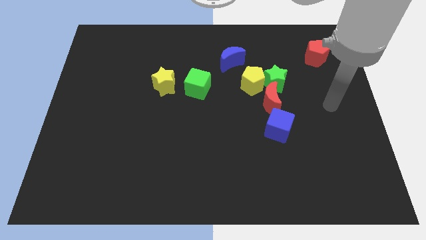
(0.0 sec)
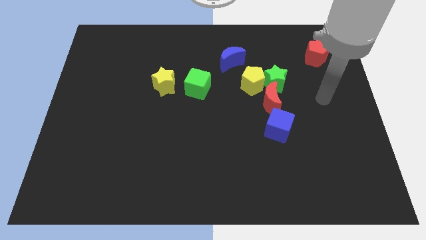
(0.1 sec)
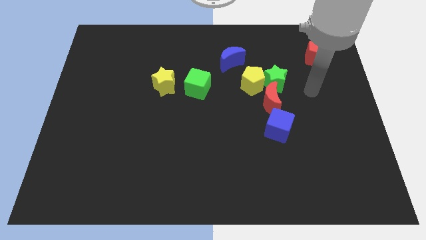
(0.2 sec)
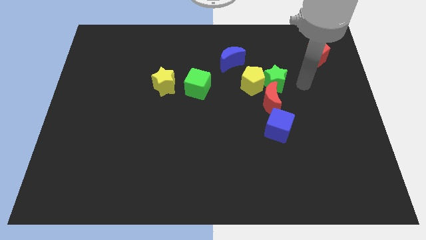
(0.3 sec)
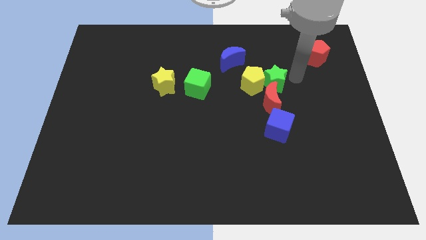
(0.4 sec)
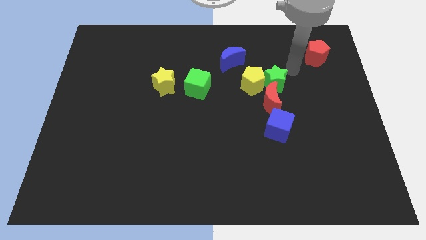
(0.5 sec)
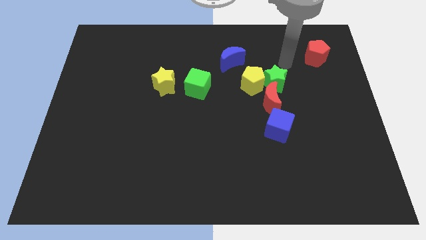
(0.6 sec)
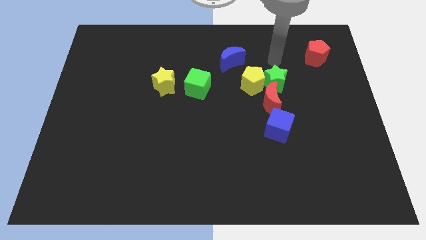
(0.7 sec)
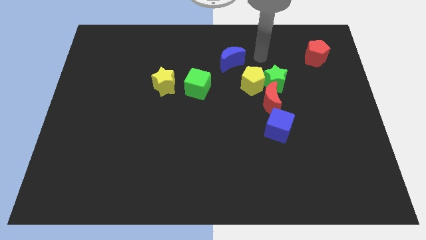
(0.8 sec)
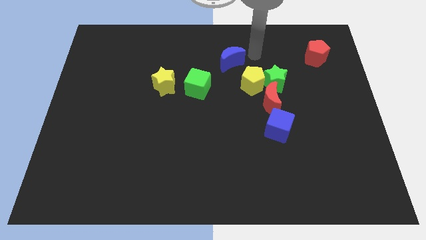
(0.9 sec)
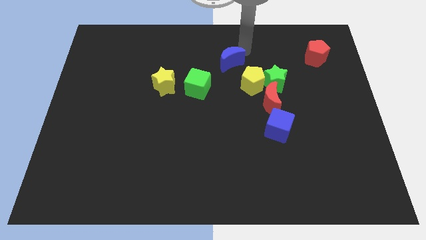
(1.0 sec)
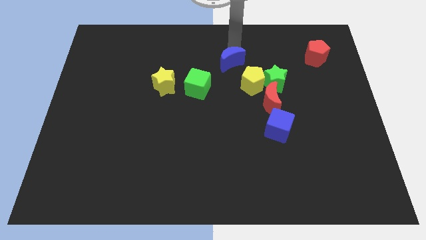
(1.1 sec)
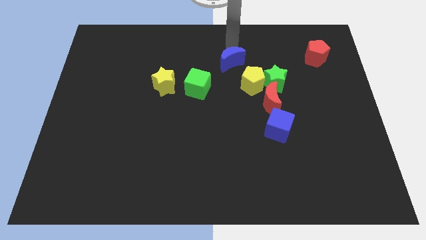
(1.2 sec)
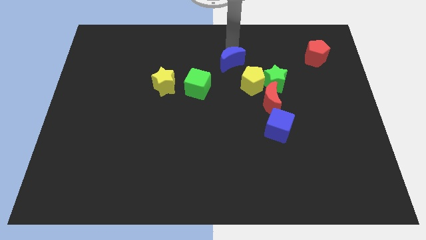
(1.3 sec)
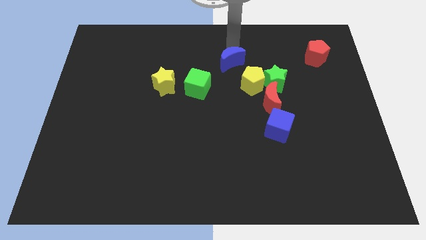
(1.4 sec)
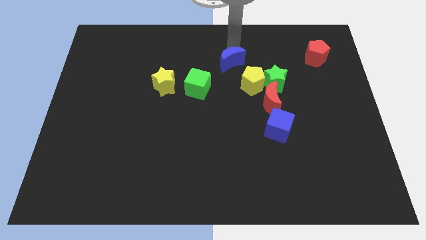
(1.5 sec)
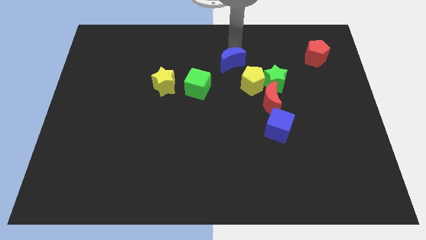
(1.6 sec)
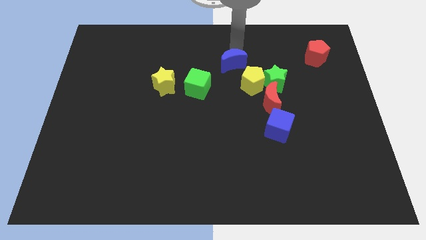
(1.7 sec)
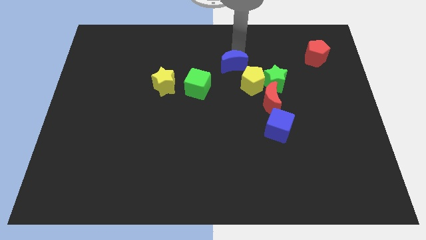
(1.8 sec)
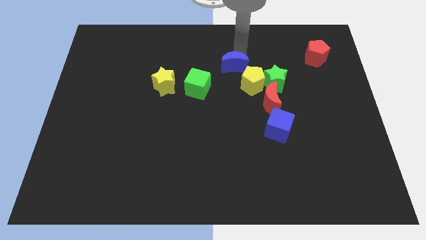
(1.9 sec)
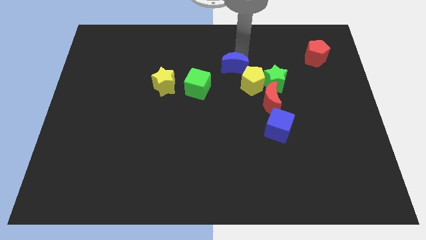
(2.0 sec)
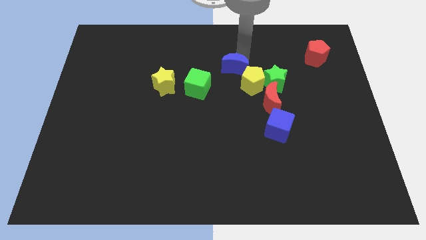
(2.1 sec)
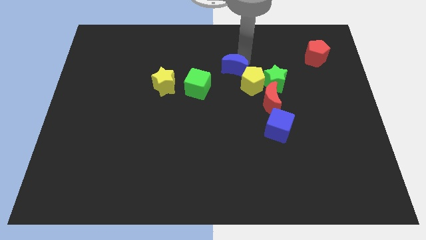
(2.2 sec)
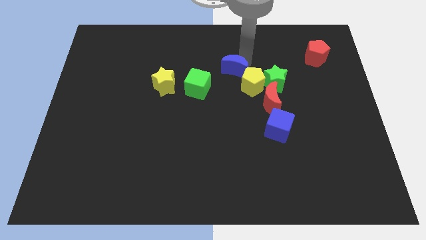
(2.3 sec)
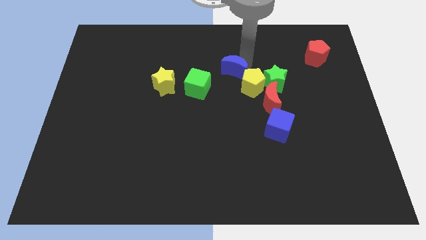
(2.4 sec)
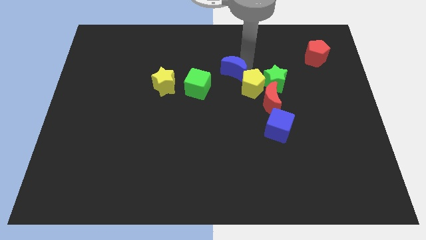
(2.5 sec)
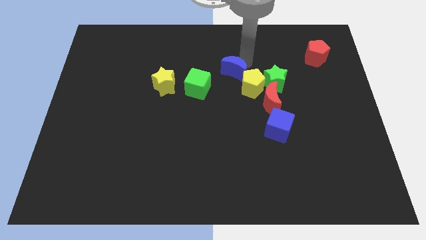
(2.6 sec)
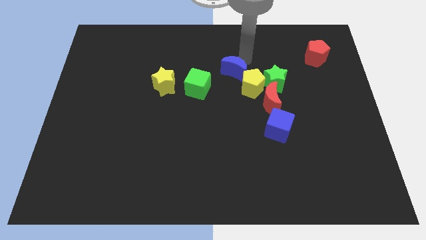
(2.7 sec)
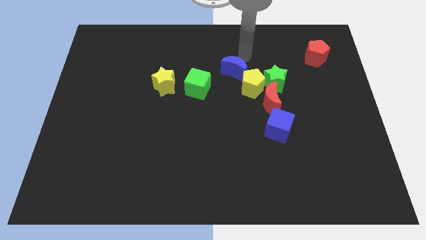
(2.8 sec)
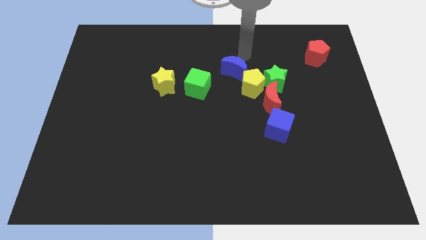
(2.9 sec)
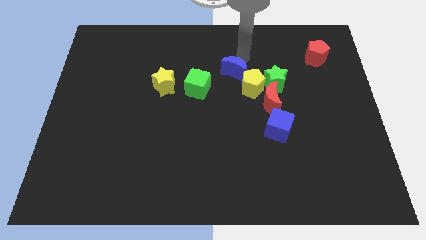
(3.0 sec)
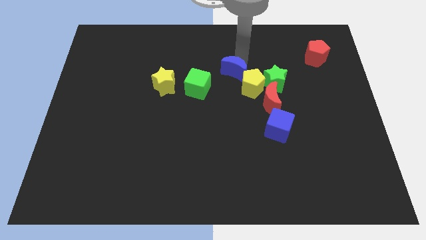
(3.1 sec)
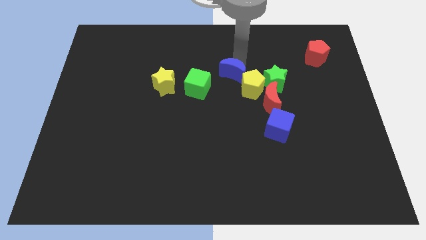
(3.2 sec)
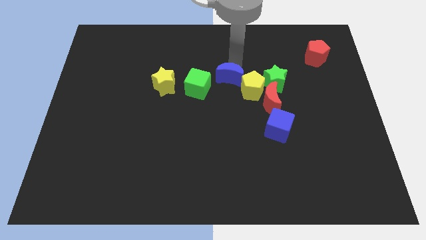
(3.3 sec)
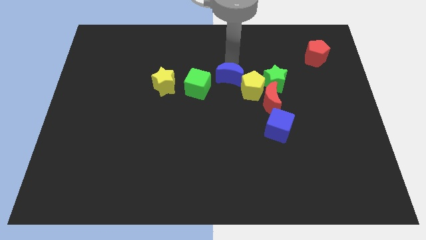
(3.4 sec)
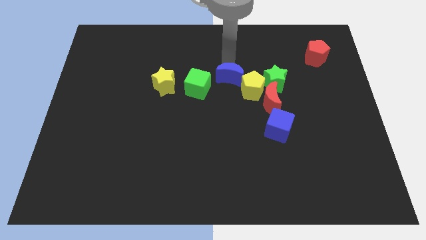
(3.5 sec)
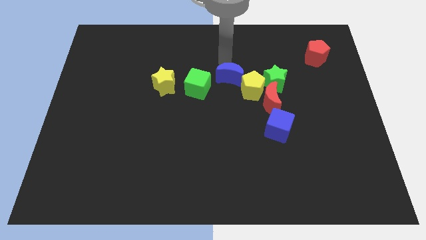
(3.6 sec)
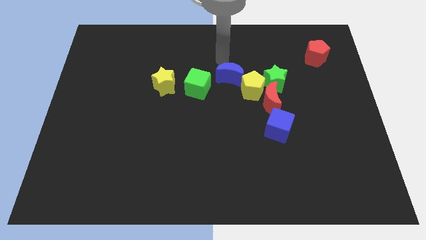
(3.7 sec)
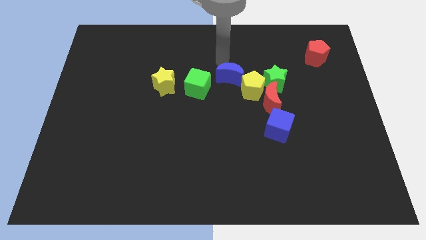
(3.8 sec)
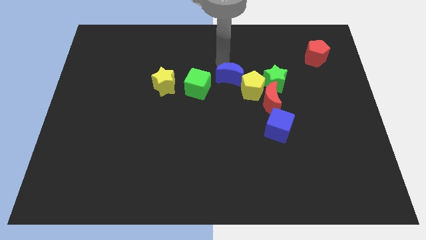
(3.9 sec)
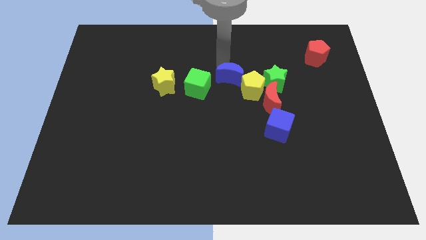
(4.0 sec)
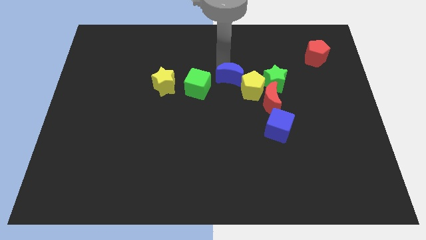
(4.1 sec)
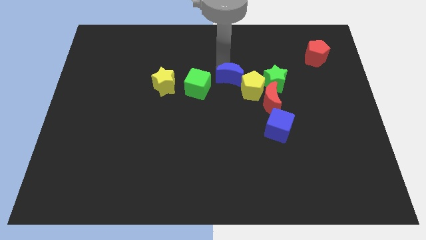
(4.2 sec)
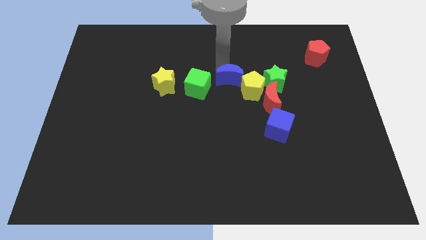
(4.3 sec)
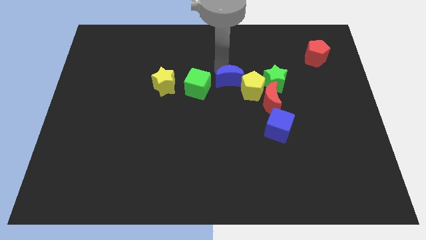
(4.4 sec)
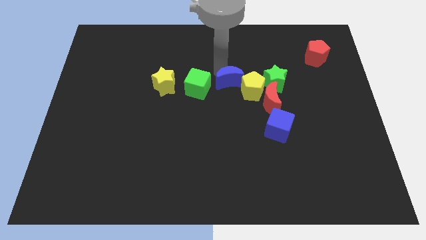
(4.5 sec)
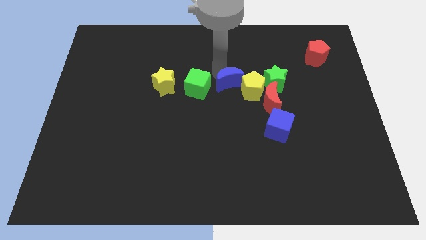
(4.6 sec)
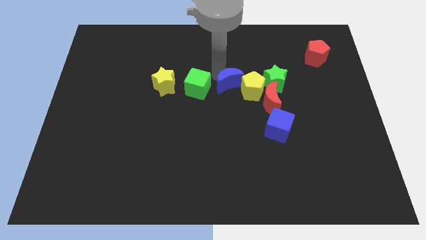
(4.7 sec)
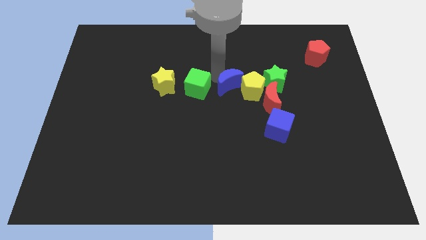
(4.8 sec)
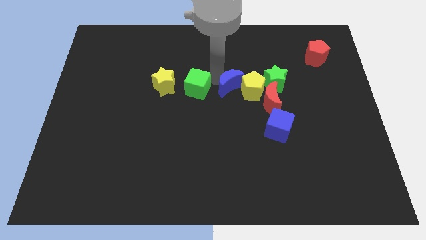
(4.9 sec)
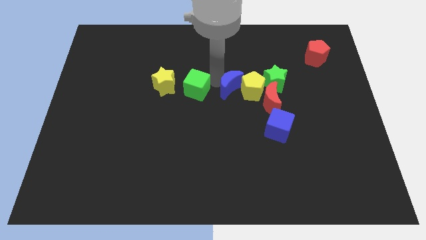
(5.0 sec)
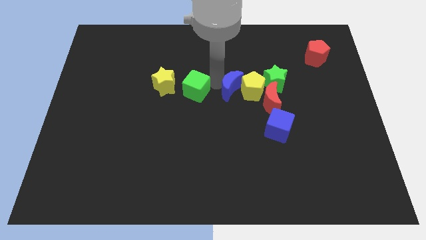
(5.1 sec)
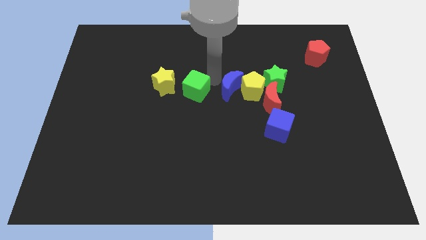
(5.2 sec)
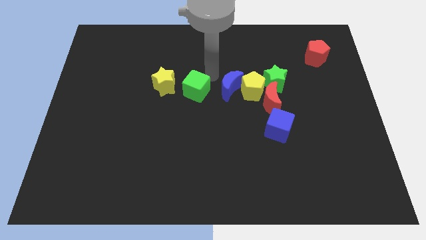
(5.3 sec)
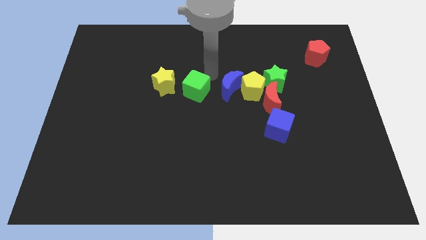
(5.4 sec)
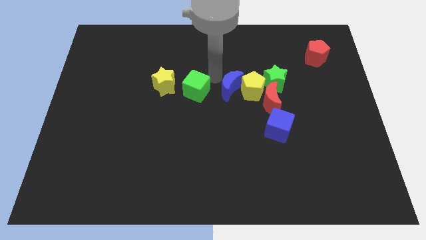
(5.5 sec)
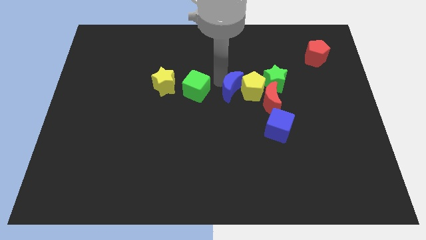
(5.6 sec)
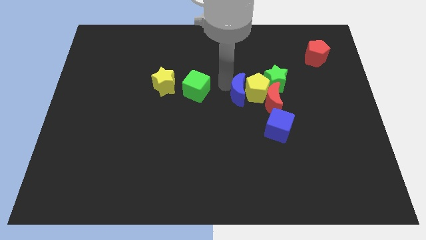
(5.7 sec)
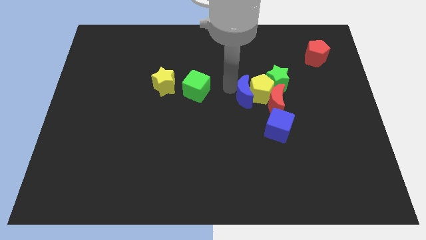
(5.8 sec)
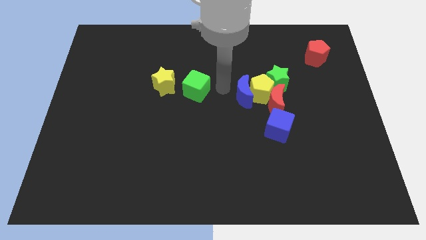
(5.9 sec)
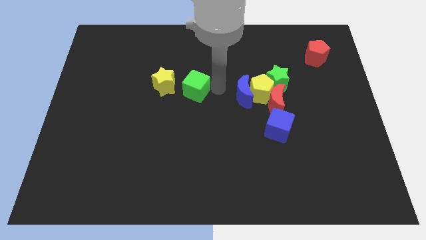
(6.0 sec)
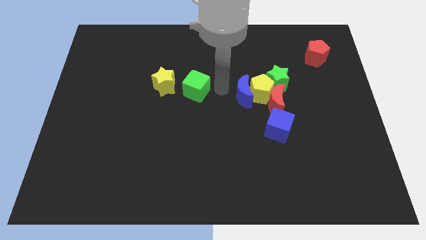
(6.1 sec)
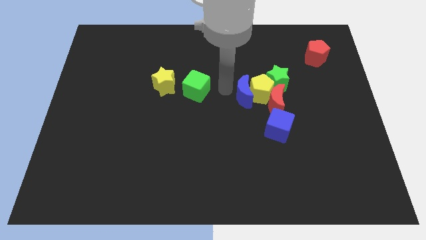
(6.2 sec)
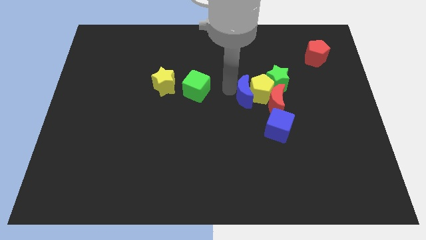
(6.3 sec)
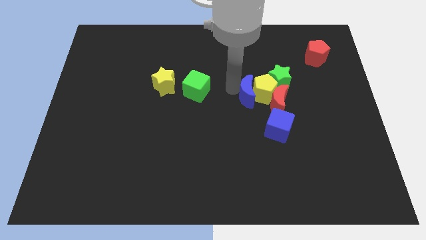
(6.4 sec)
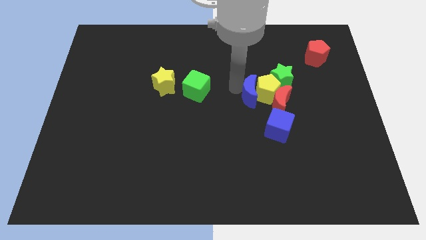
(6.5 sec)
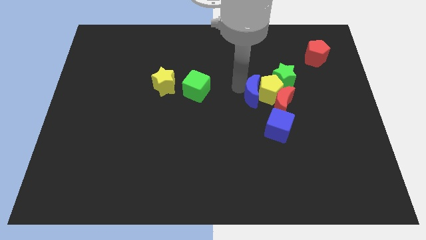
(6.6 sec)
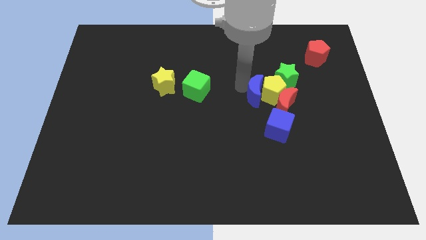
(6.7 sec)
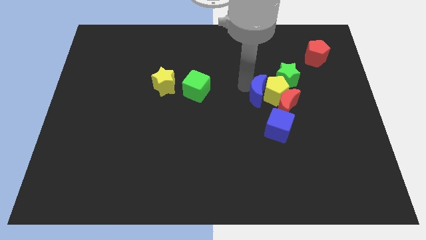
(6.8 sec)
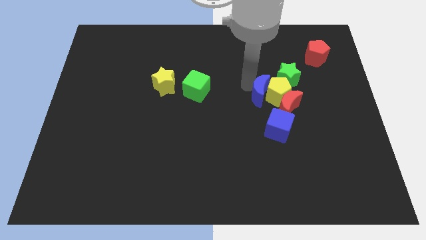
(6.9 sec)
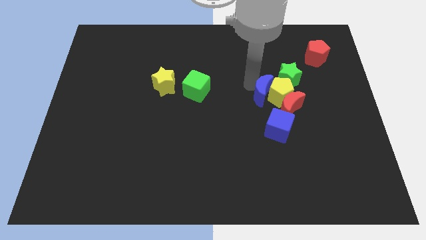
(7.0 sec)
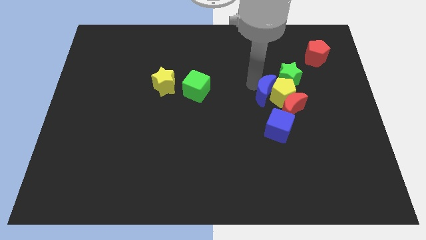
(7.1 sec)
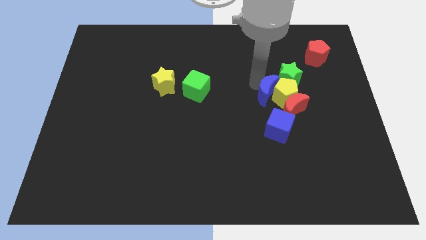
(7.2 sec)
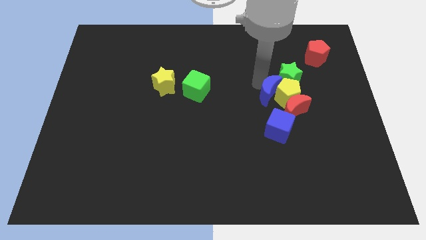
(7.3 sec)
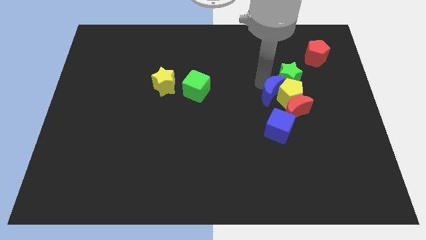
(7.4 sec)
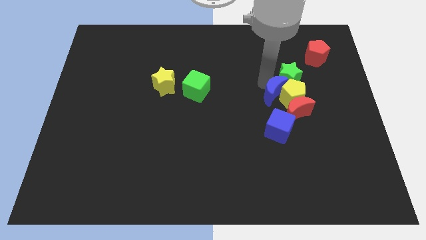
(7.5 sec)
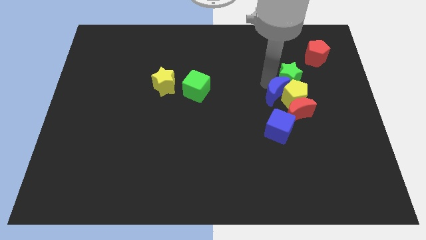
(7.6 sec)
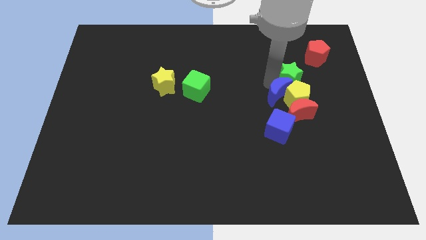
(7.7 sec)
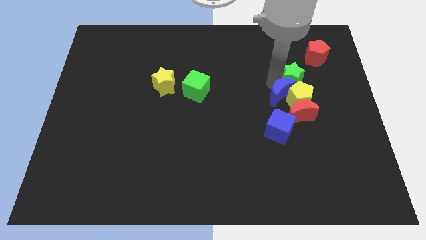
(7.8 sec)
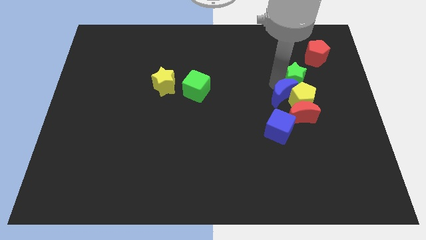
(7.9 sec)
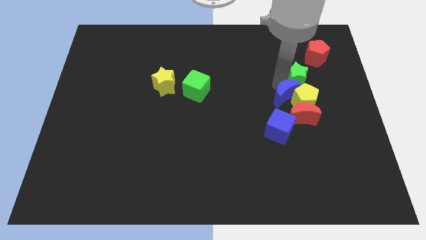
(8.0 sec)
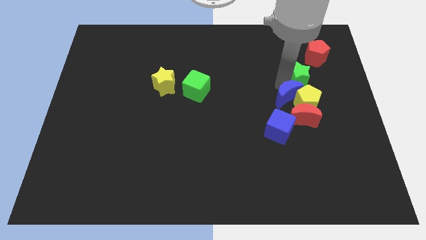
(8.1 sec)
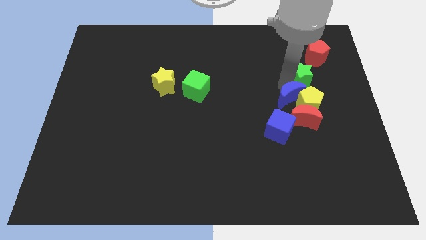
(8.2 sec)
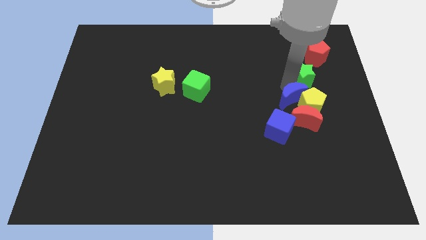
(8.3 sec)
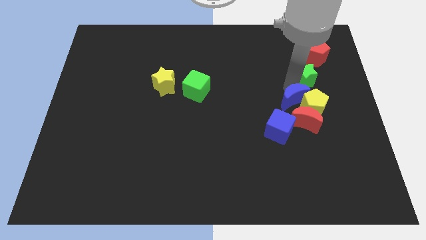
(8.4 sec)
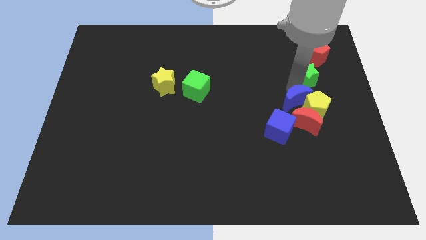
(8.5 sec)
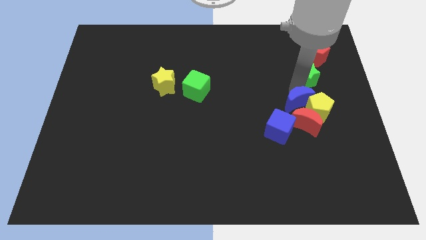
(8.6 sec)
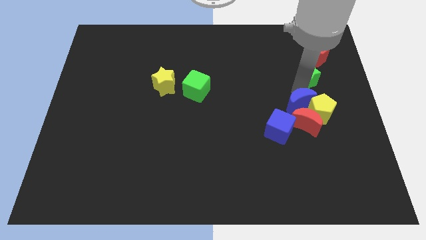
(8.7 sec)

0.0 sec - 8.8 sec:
push the blue moon to the red moon
